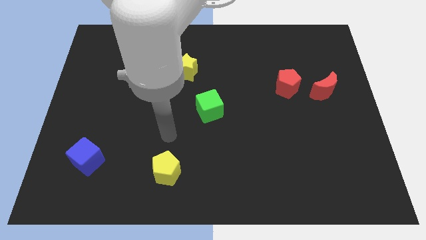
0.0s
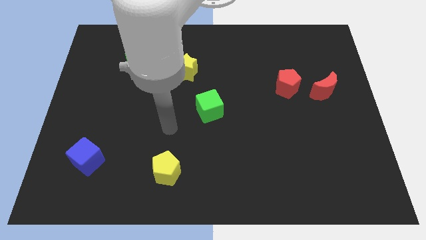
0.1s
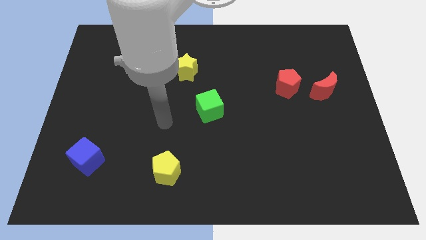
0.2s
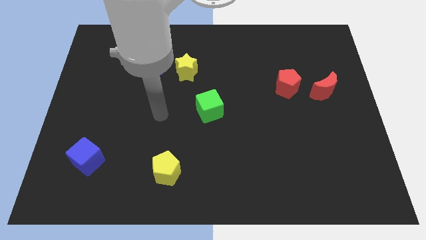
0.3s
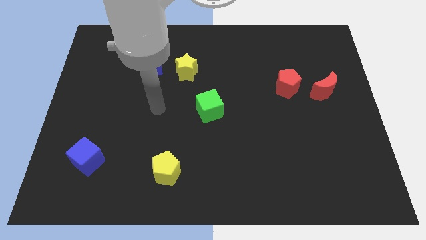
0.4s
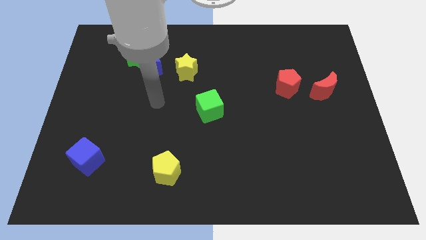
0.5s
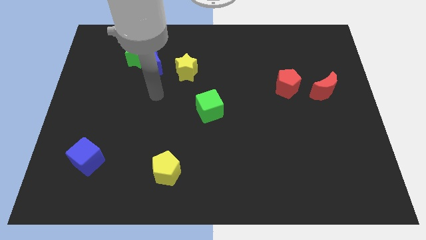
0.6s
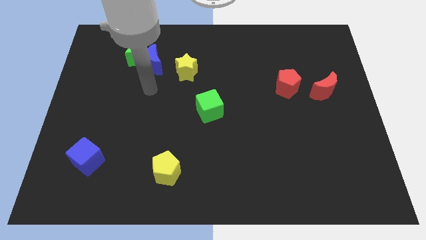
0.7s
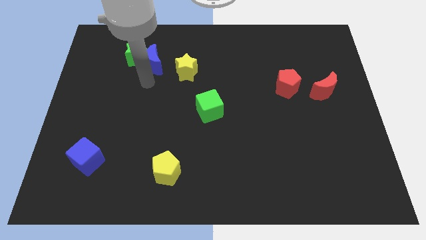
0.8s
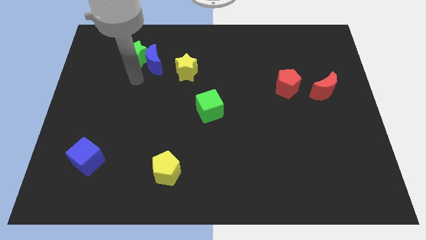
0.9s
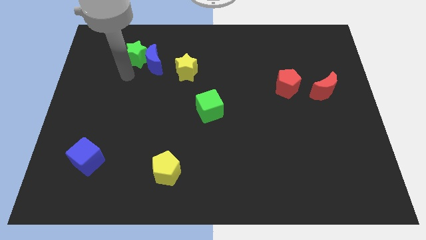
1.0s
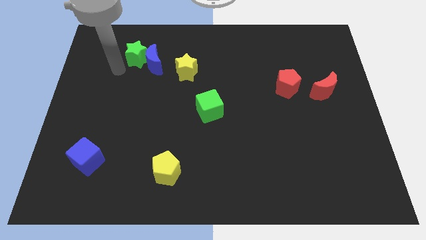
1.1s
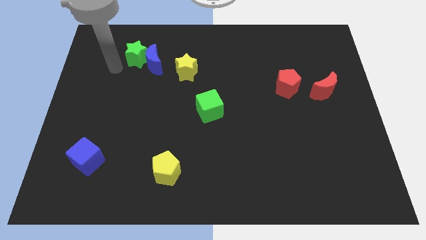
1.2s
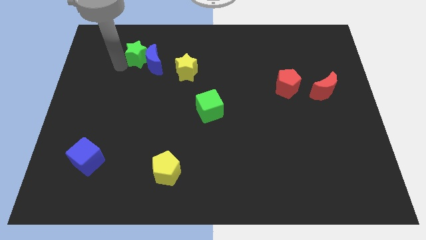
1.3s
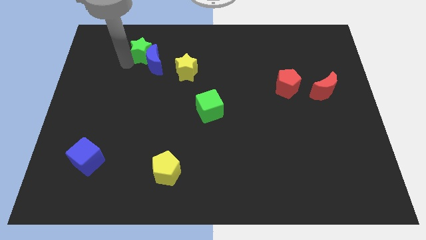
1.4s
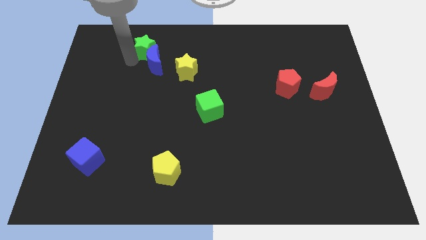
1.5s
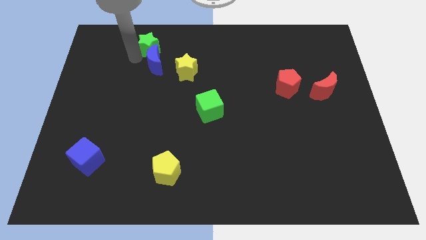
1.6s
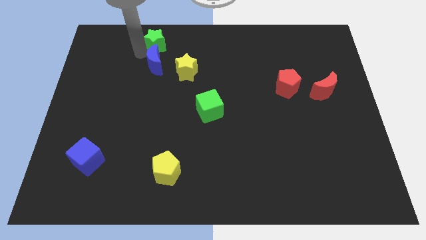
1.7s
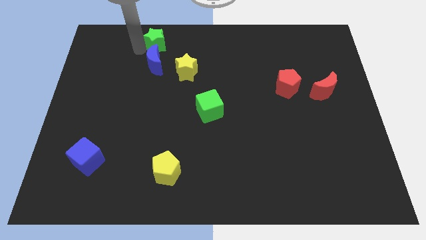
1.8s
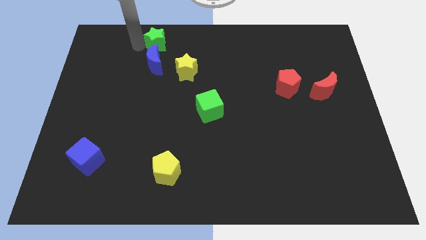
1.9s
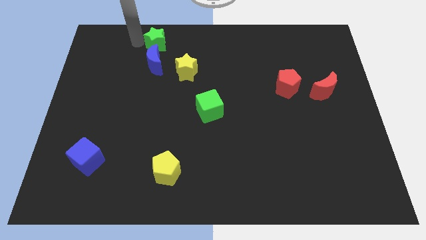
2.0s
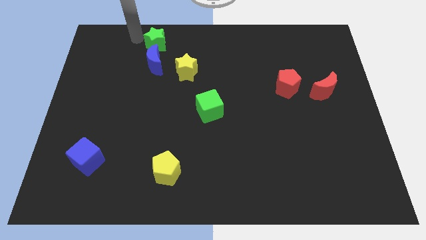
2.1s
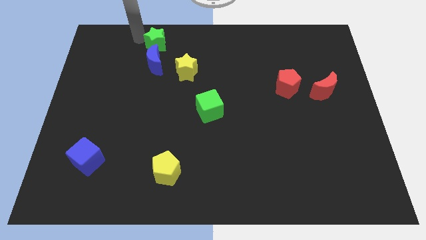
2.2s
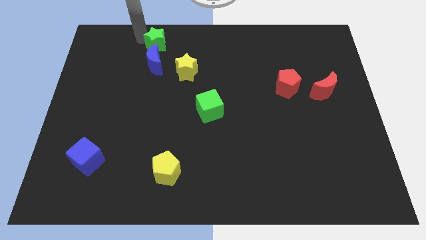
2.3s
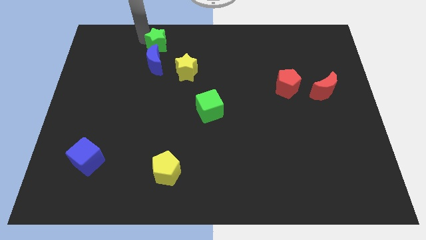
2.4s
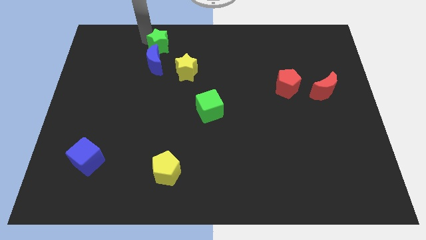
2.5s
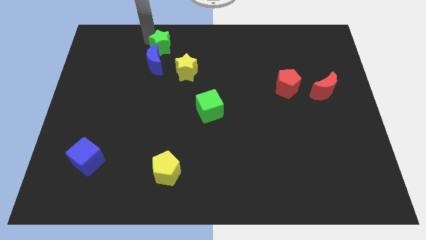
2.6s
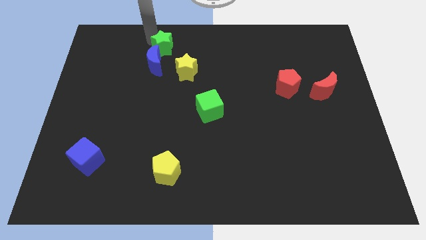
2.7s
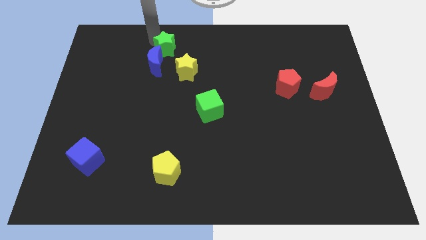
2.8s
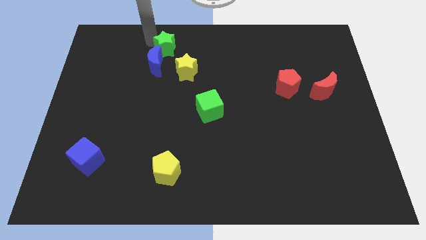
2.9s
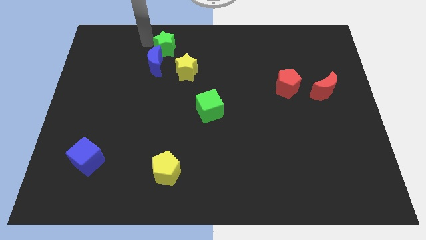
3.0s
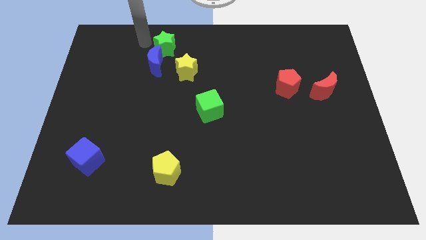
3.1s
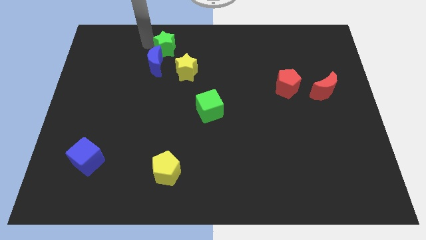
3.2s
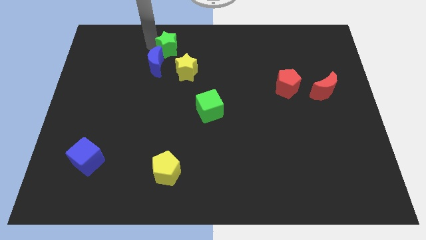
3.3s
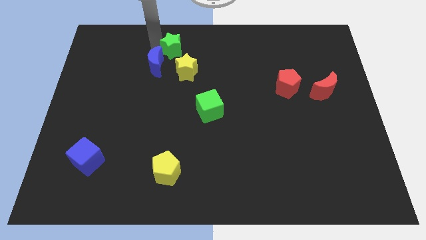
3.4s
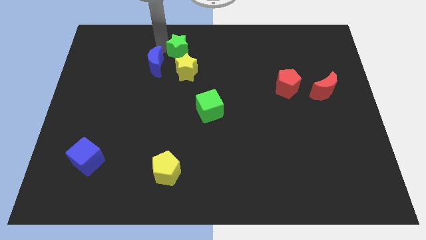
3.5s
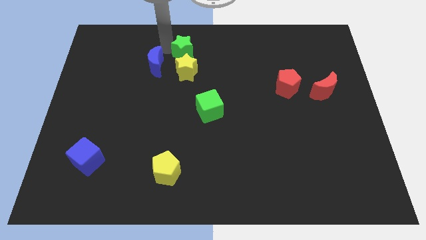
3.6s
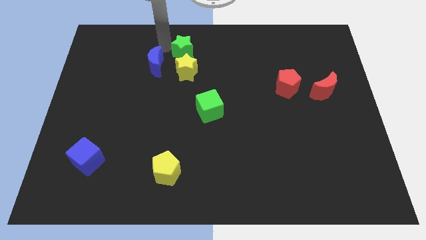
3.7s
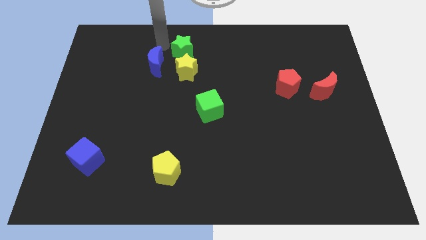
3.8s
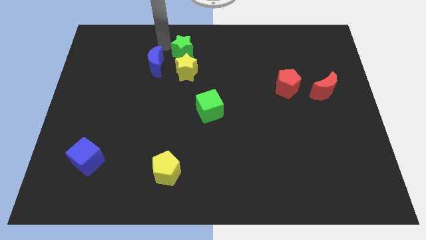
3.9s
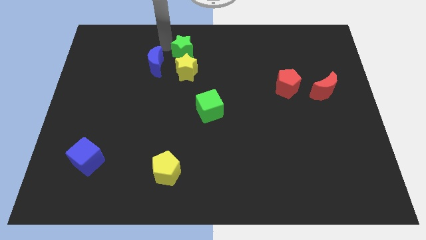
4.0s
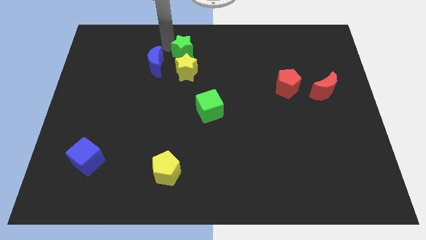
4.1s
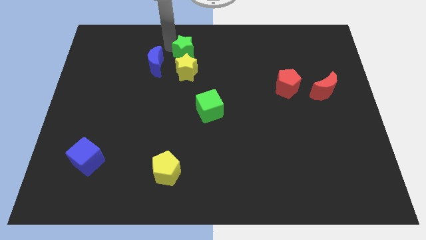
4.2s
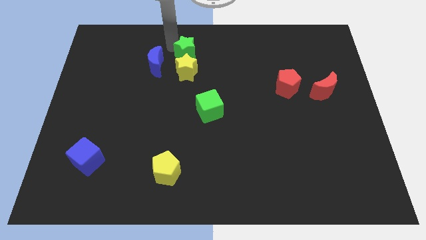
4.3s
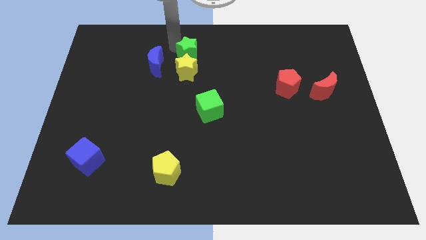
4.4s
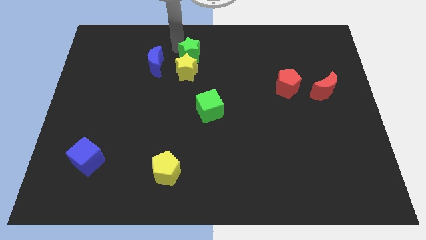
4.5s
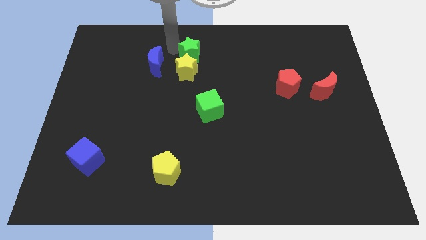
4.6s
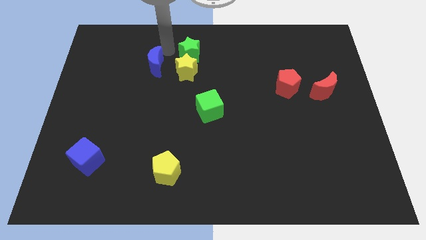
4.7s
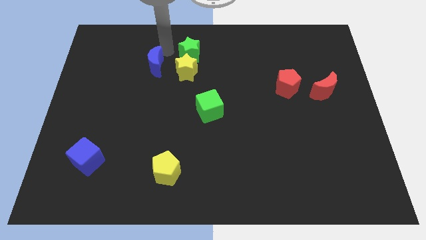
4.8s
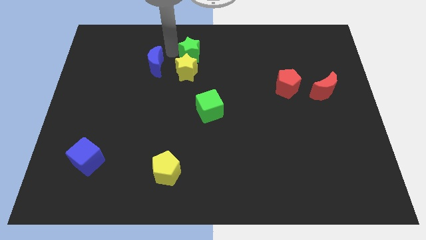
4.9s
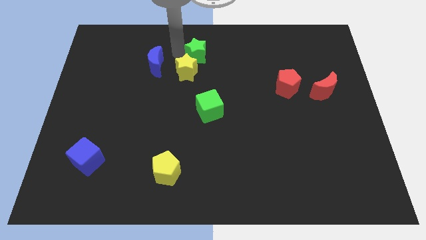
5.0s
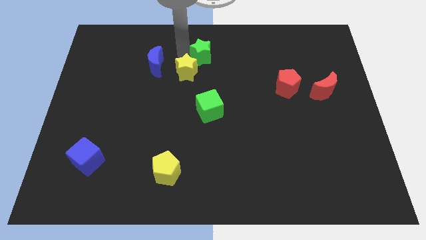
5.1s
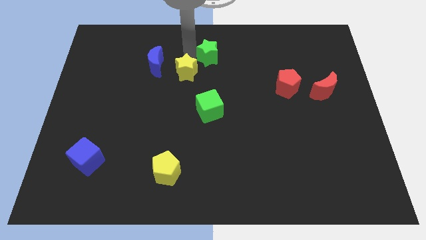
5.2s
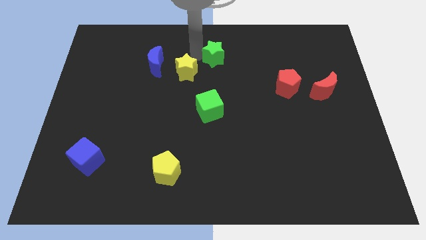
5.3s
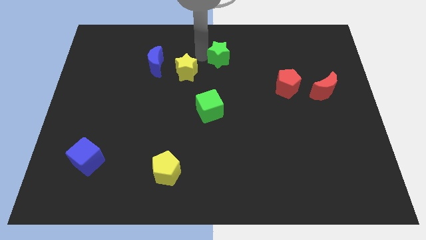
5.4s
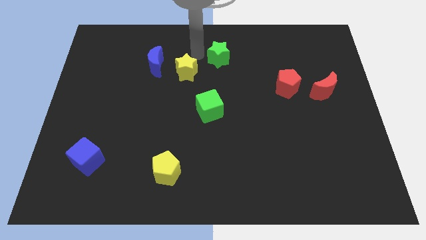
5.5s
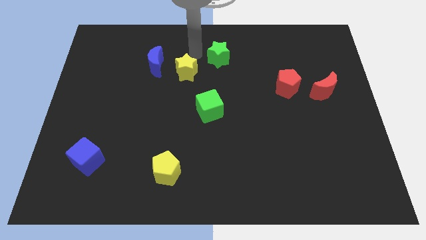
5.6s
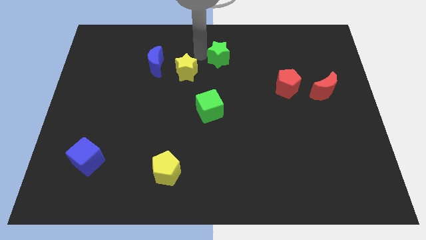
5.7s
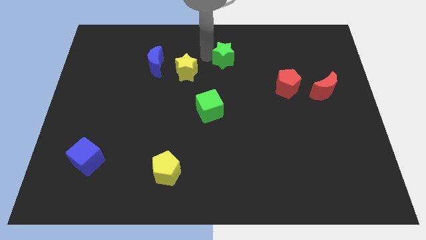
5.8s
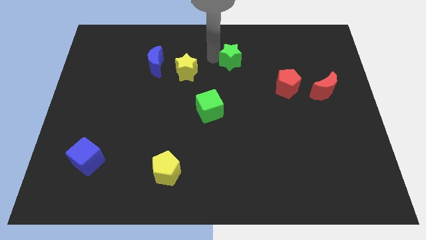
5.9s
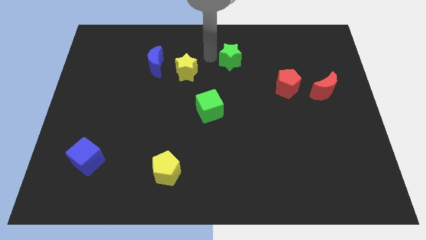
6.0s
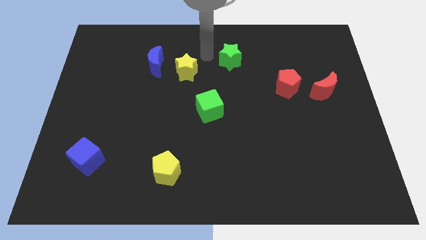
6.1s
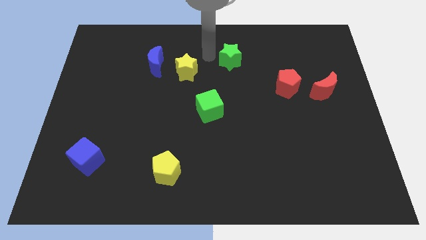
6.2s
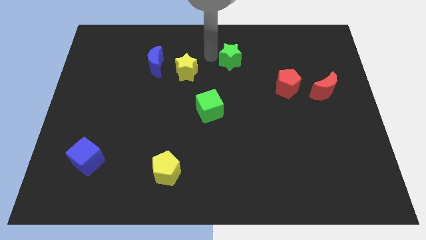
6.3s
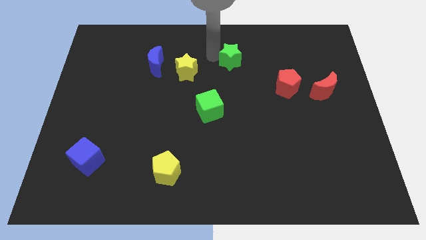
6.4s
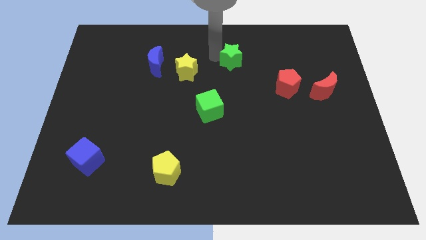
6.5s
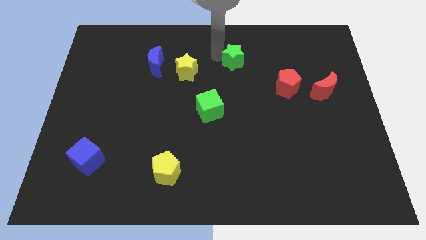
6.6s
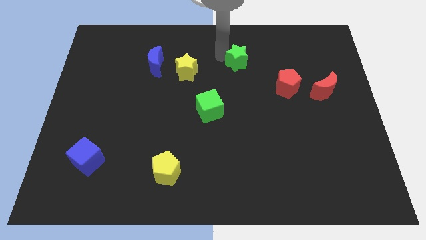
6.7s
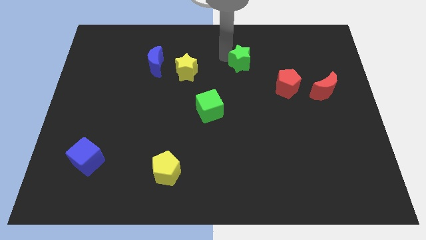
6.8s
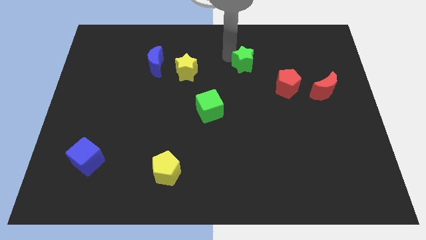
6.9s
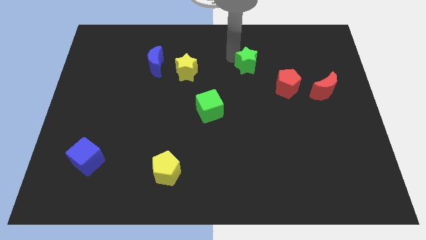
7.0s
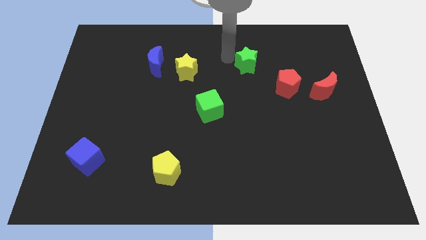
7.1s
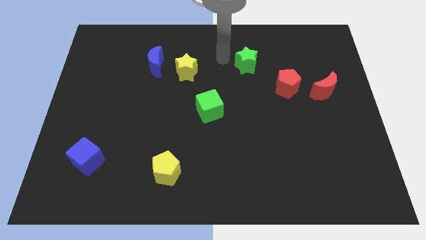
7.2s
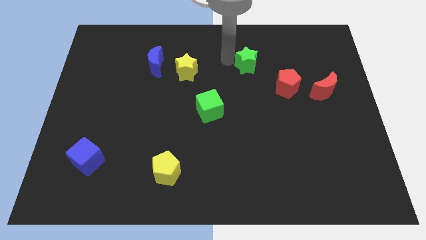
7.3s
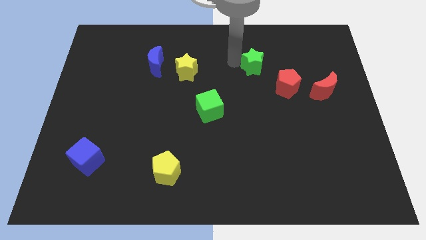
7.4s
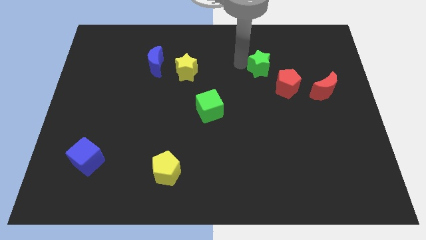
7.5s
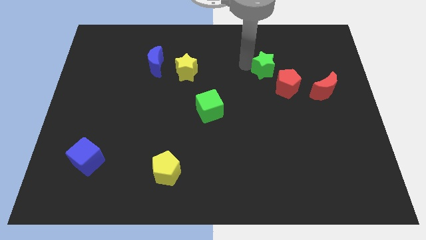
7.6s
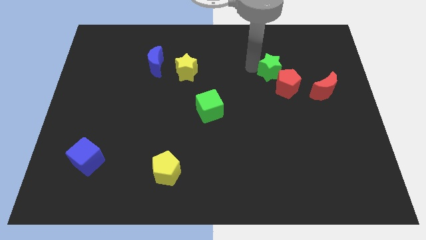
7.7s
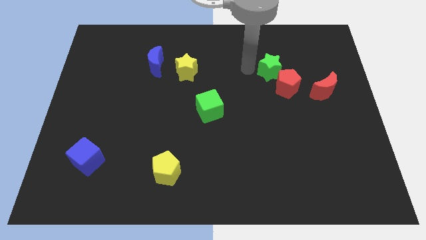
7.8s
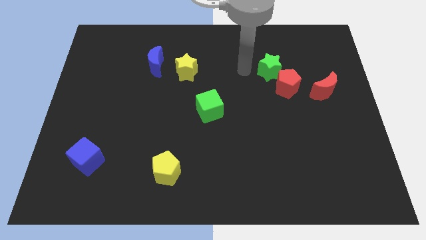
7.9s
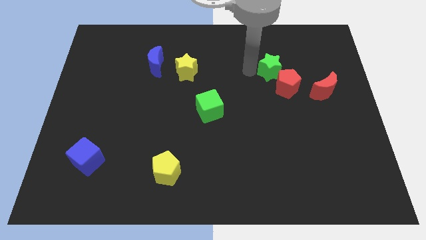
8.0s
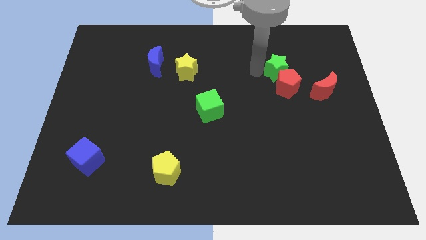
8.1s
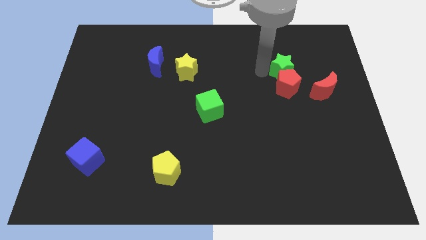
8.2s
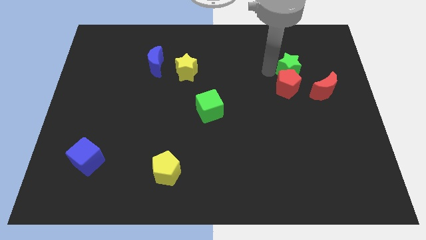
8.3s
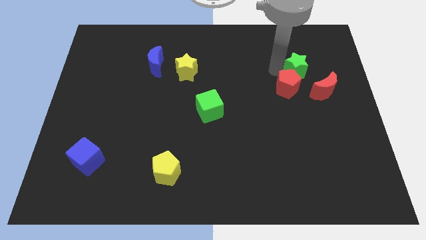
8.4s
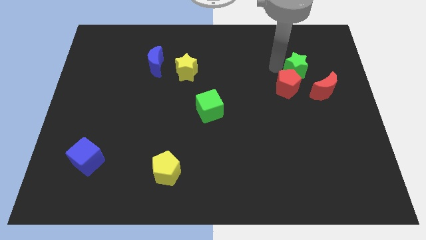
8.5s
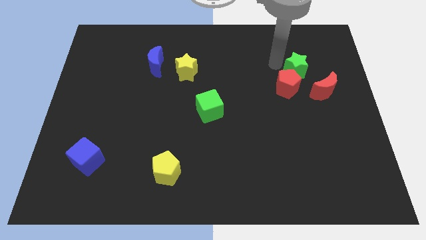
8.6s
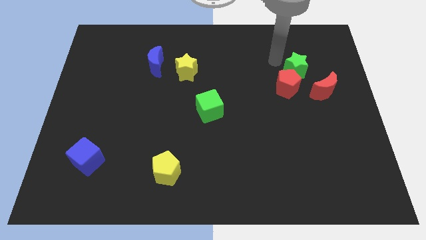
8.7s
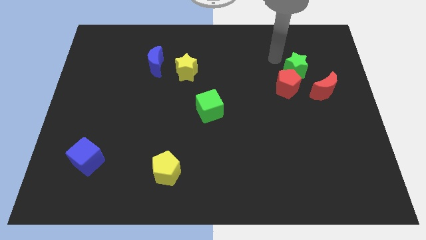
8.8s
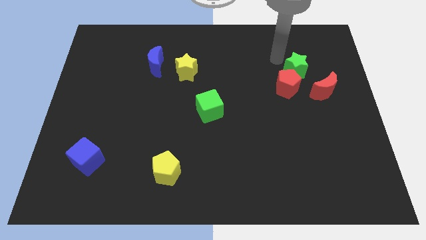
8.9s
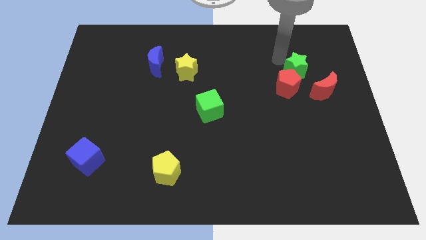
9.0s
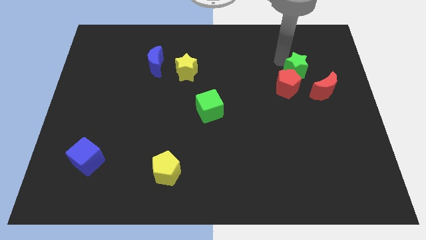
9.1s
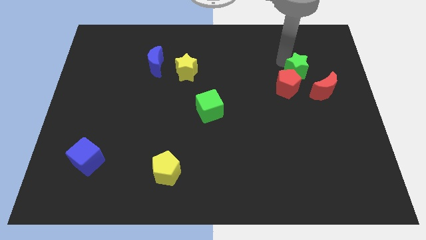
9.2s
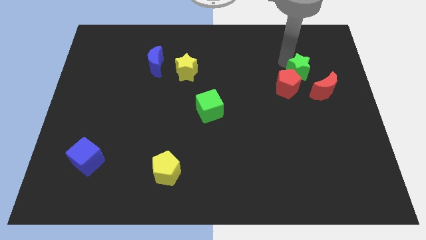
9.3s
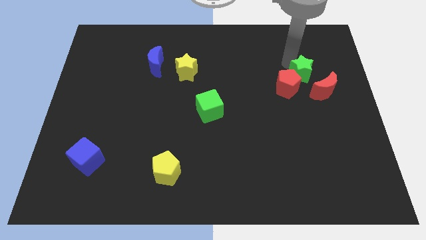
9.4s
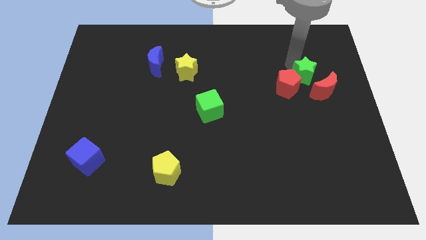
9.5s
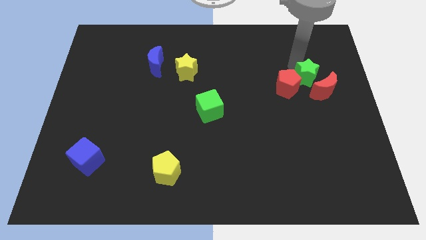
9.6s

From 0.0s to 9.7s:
slide the green star towards the red moon
